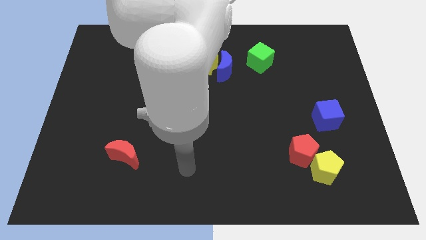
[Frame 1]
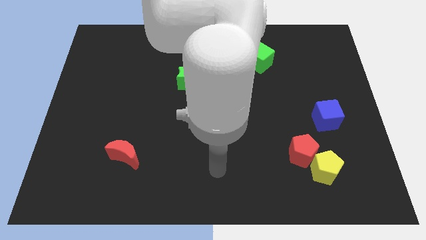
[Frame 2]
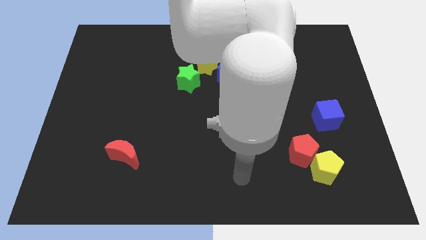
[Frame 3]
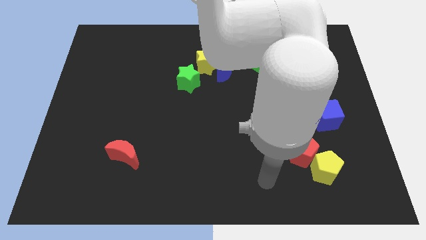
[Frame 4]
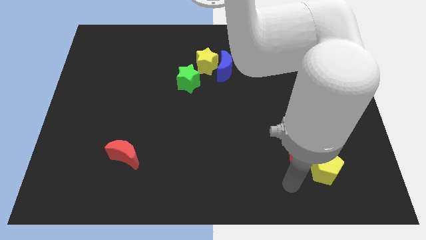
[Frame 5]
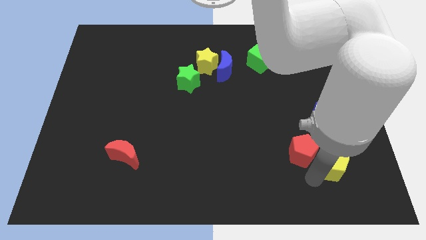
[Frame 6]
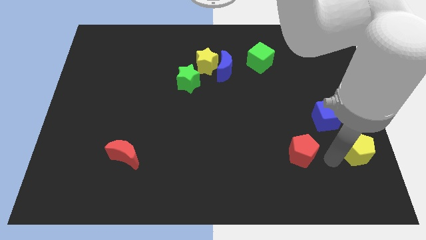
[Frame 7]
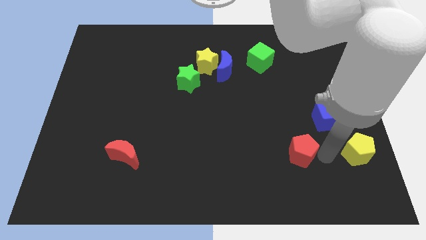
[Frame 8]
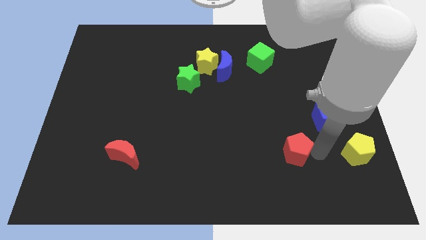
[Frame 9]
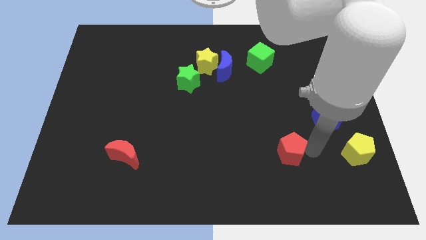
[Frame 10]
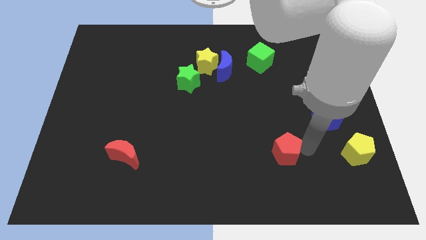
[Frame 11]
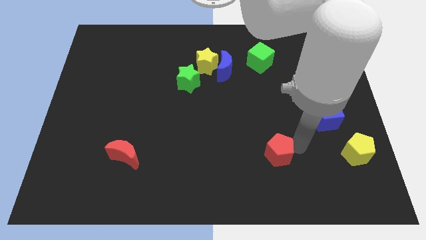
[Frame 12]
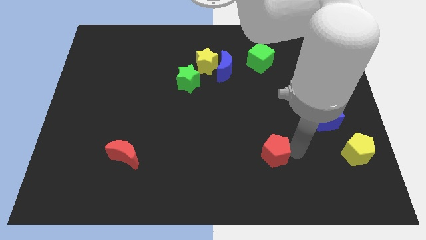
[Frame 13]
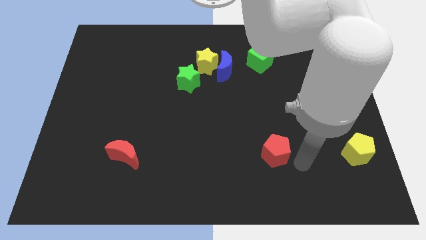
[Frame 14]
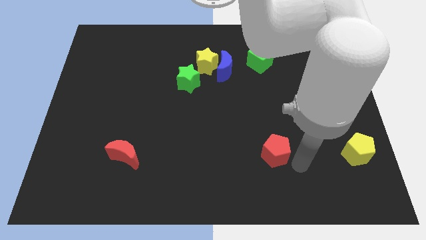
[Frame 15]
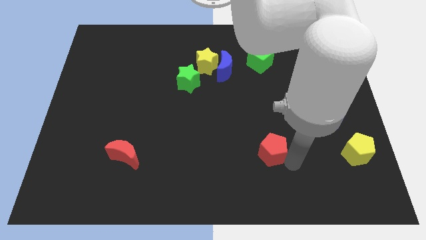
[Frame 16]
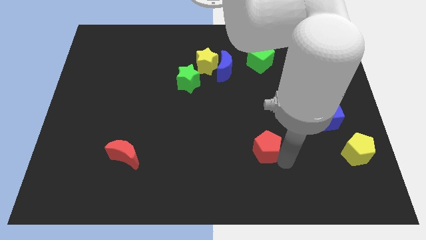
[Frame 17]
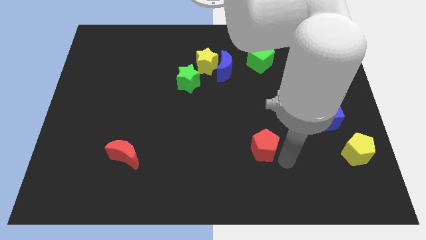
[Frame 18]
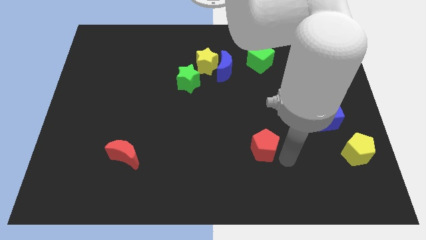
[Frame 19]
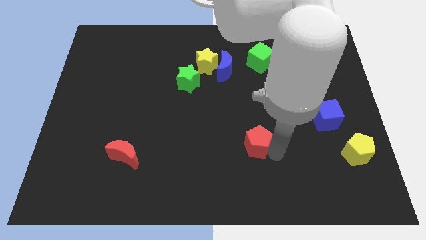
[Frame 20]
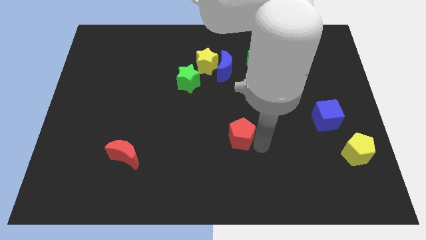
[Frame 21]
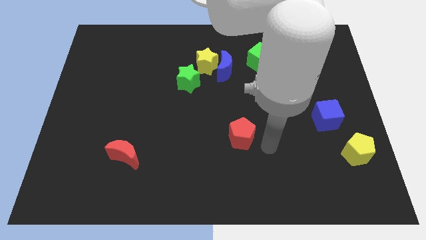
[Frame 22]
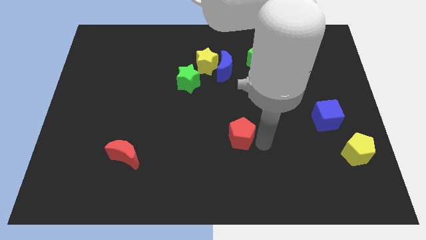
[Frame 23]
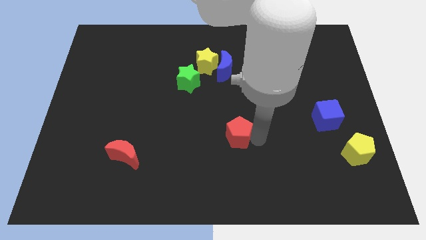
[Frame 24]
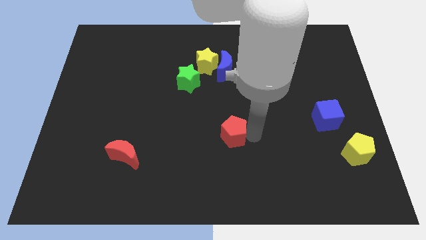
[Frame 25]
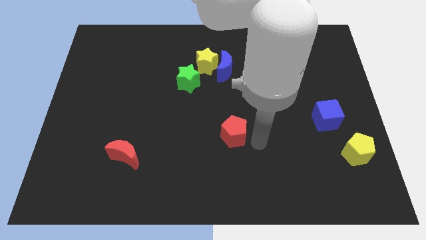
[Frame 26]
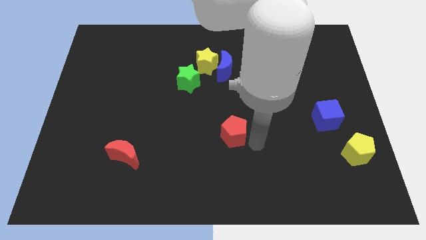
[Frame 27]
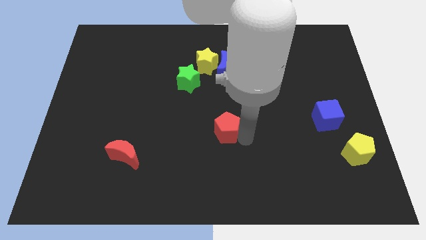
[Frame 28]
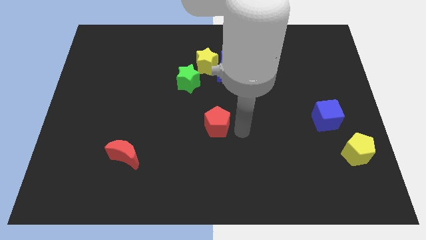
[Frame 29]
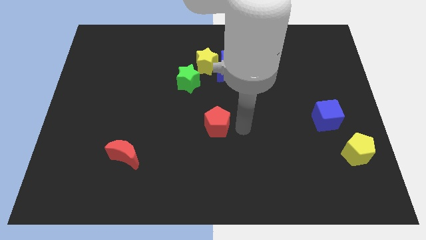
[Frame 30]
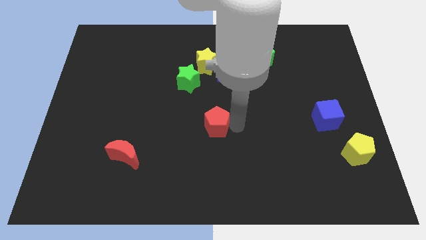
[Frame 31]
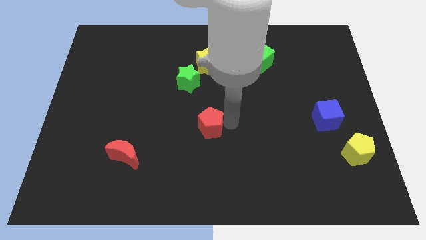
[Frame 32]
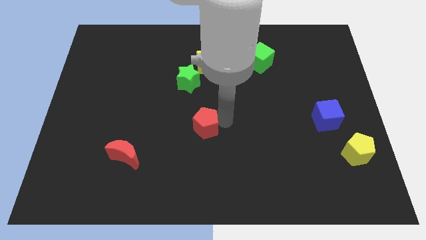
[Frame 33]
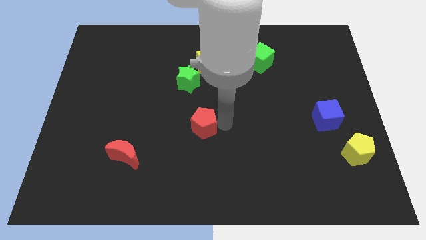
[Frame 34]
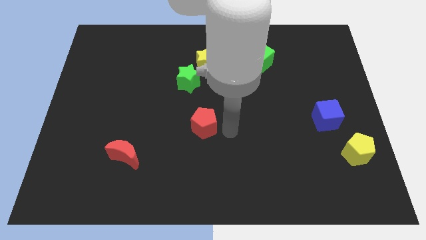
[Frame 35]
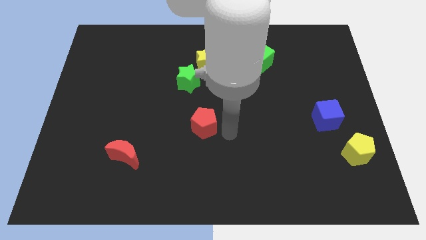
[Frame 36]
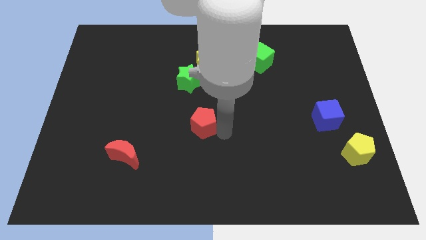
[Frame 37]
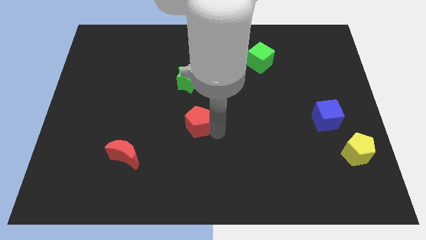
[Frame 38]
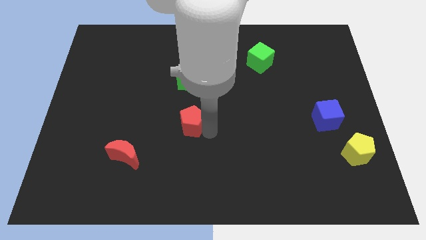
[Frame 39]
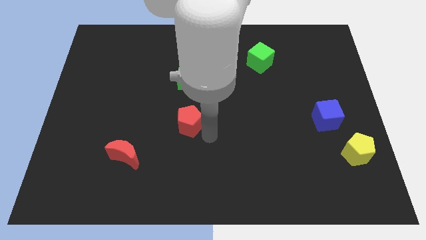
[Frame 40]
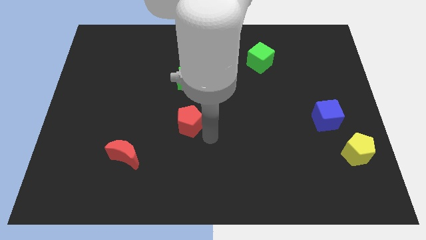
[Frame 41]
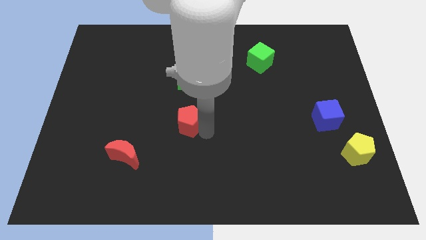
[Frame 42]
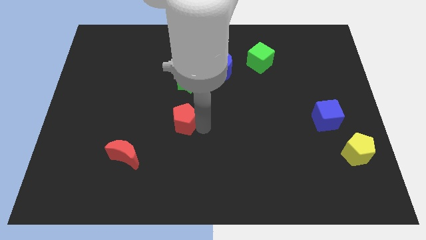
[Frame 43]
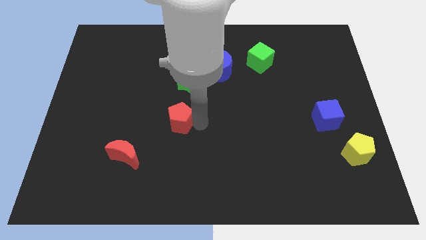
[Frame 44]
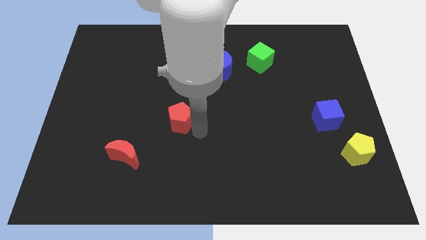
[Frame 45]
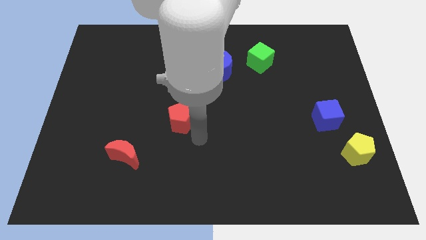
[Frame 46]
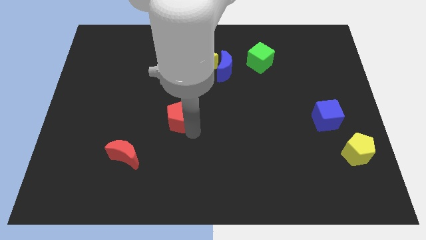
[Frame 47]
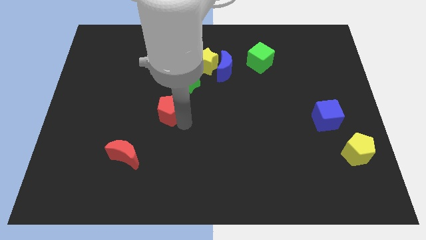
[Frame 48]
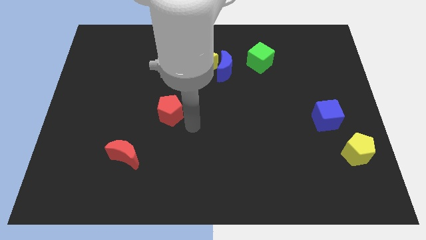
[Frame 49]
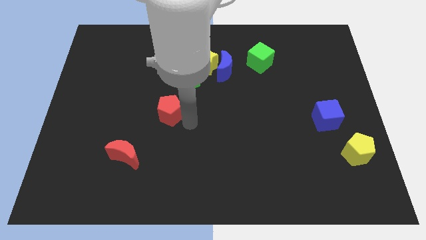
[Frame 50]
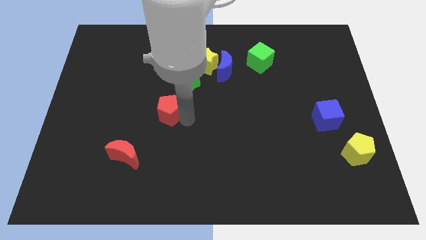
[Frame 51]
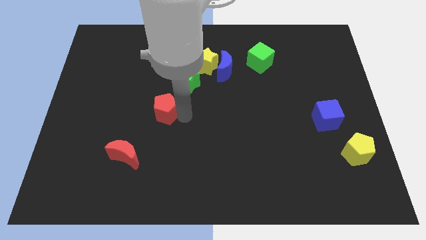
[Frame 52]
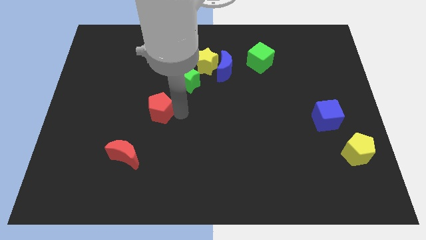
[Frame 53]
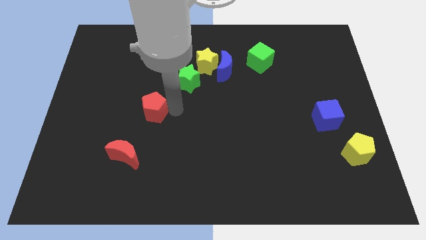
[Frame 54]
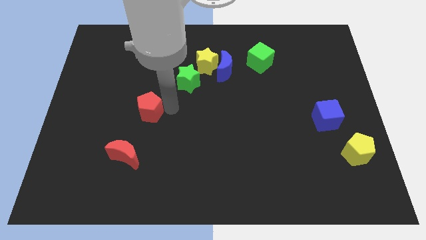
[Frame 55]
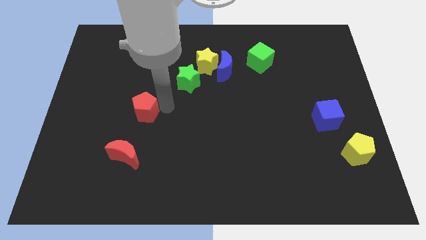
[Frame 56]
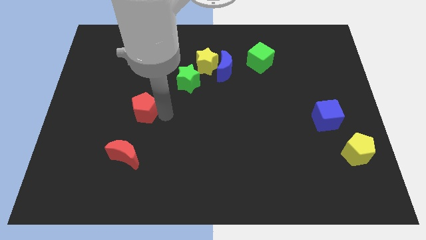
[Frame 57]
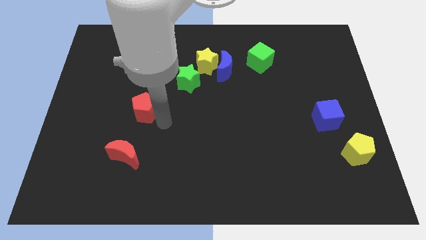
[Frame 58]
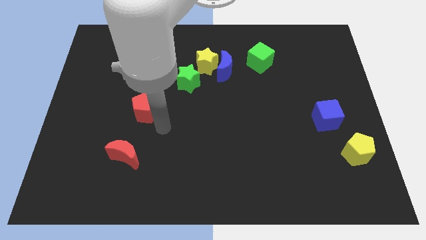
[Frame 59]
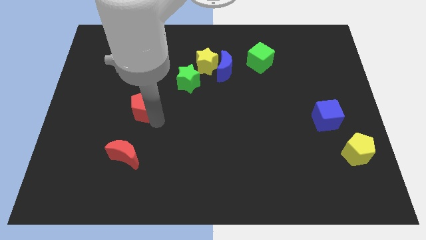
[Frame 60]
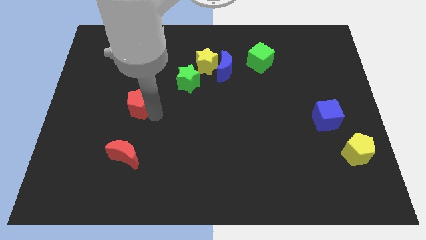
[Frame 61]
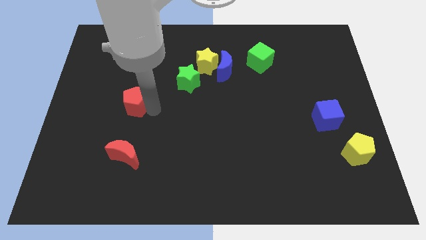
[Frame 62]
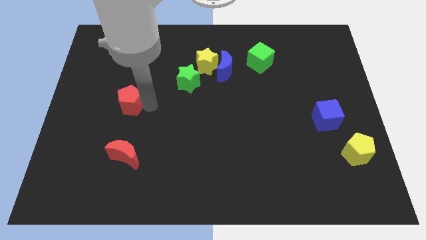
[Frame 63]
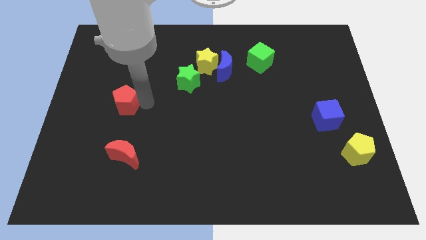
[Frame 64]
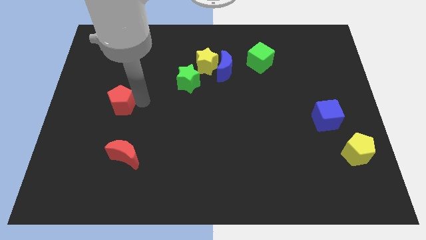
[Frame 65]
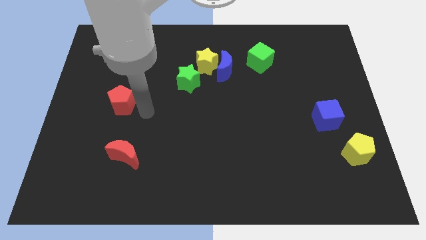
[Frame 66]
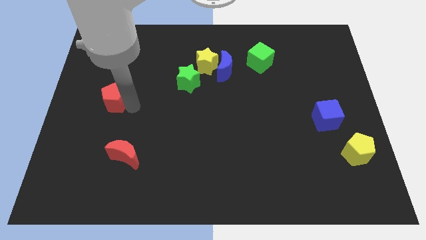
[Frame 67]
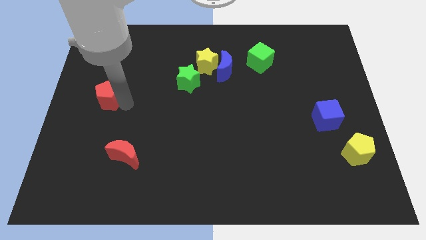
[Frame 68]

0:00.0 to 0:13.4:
move the red pentagon to the left side of the board
